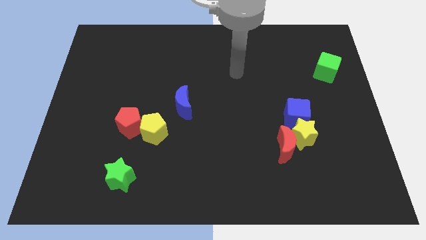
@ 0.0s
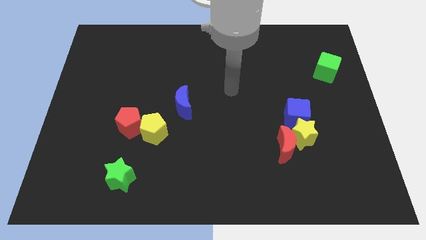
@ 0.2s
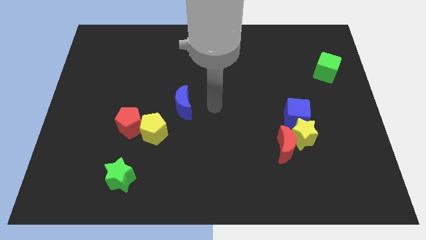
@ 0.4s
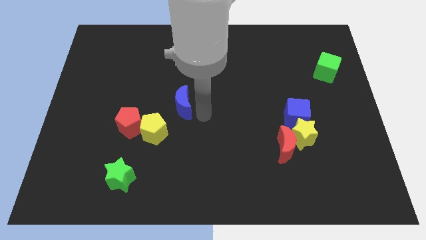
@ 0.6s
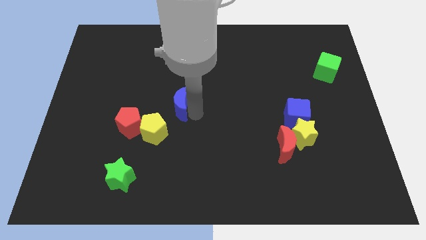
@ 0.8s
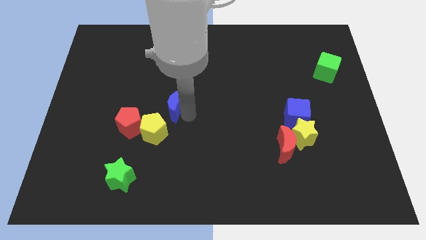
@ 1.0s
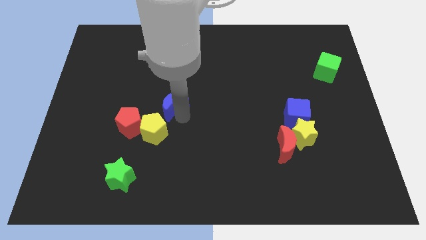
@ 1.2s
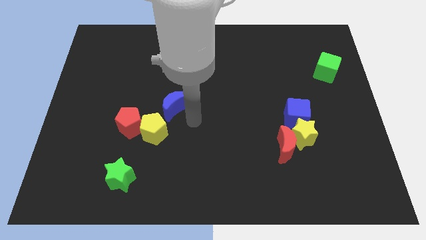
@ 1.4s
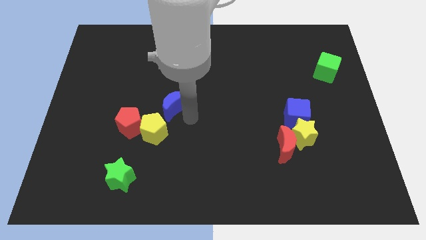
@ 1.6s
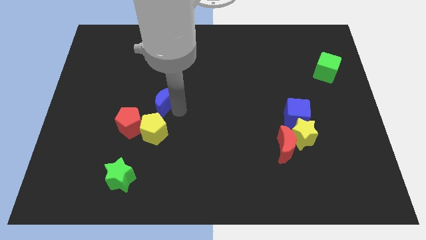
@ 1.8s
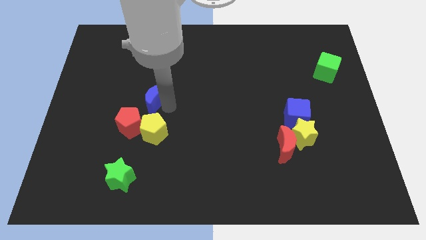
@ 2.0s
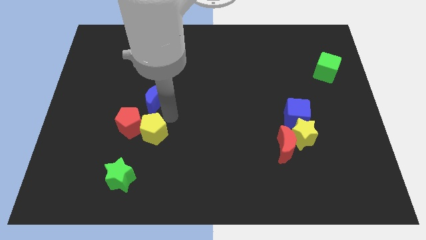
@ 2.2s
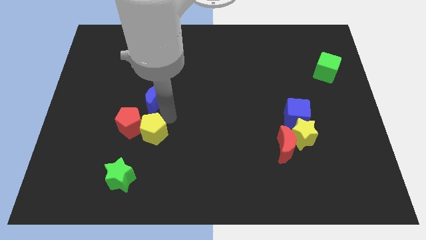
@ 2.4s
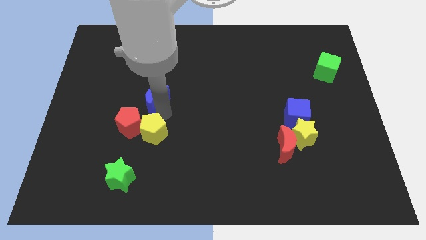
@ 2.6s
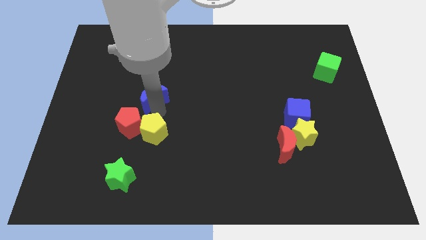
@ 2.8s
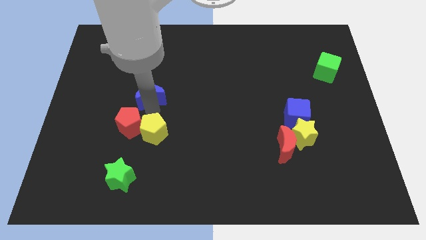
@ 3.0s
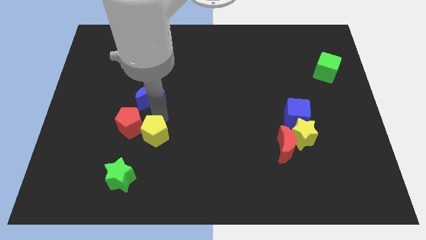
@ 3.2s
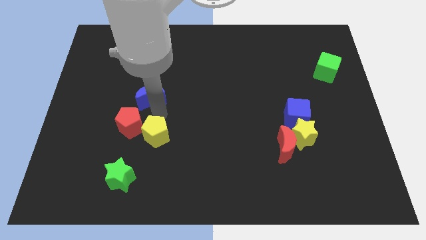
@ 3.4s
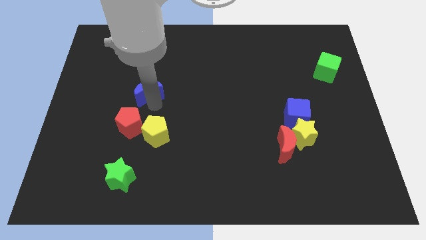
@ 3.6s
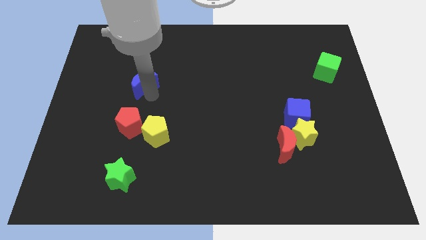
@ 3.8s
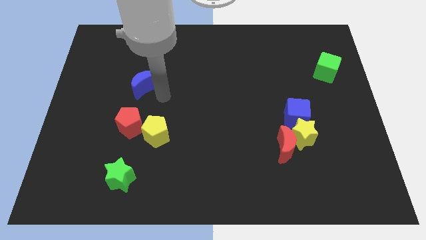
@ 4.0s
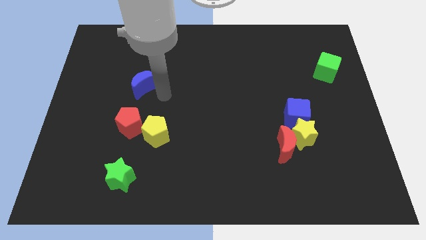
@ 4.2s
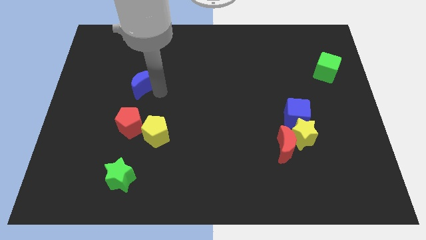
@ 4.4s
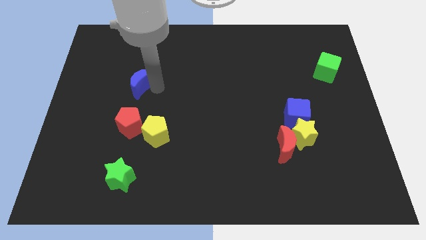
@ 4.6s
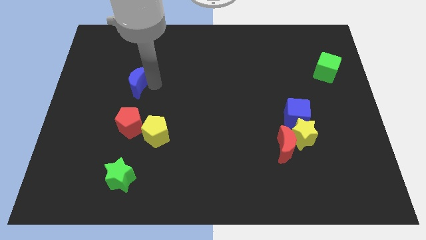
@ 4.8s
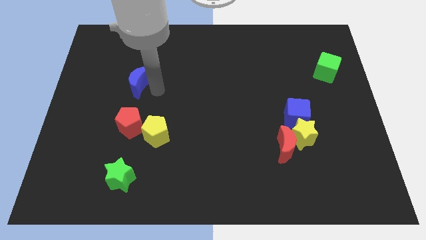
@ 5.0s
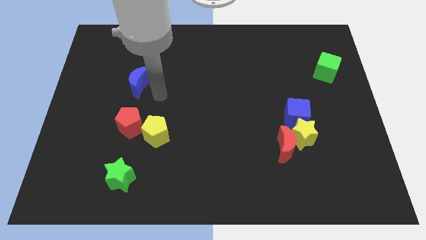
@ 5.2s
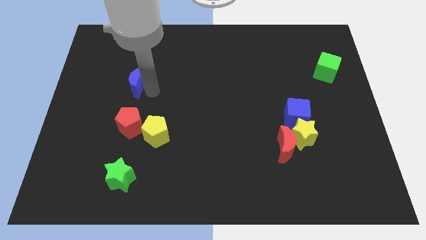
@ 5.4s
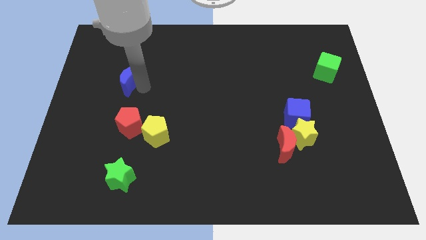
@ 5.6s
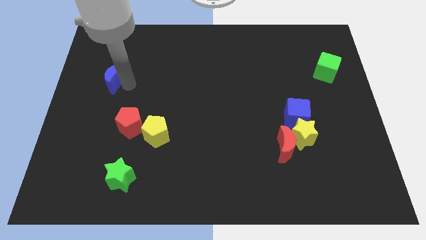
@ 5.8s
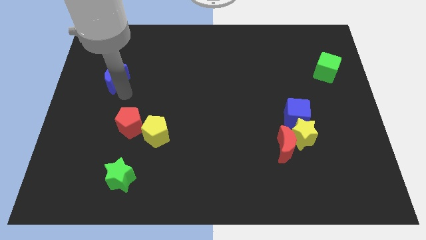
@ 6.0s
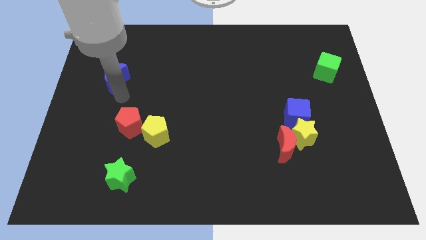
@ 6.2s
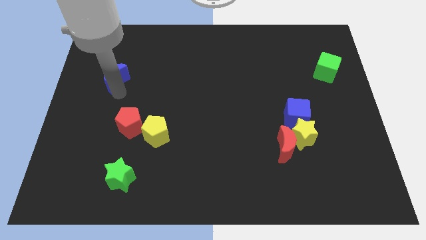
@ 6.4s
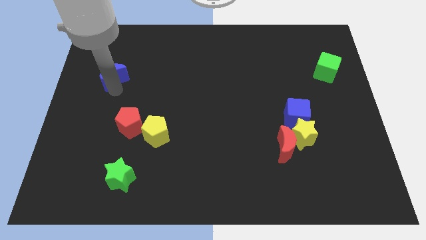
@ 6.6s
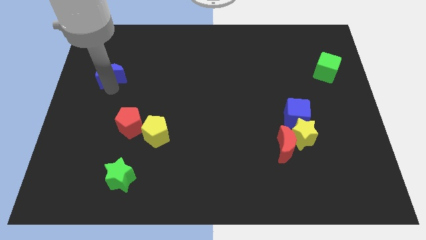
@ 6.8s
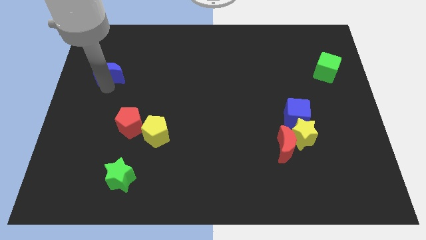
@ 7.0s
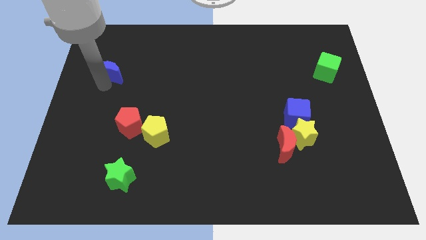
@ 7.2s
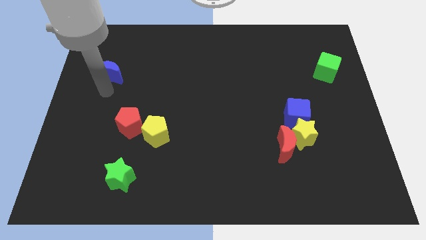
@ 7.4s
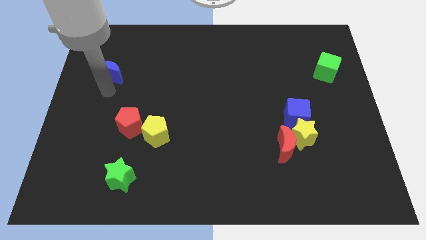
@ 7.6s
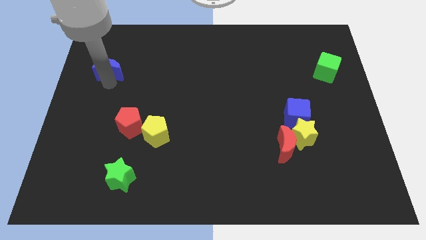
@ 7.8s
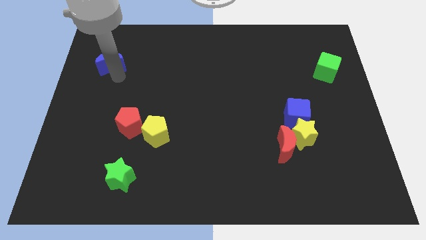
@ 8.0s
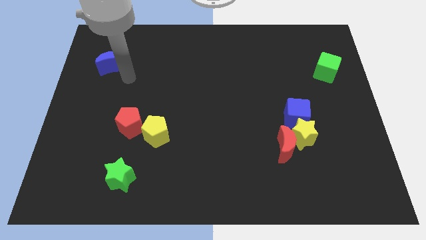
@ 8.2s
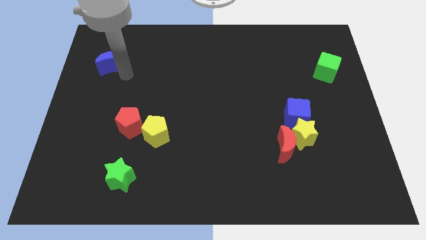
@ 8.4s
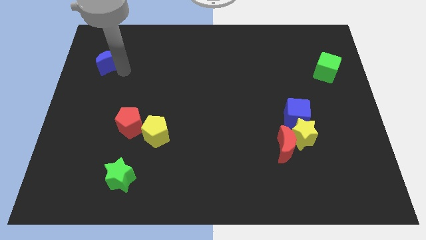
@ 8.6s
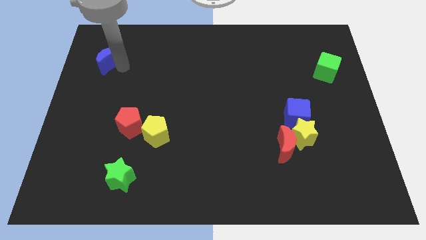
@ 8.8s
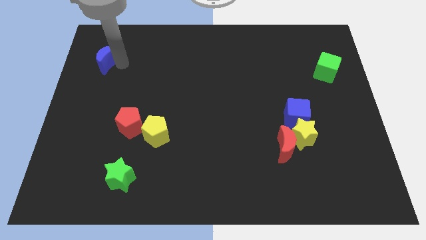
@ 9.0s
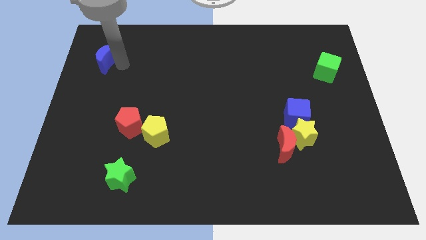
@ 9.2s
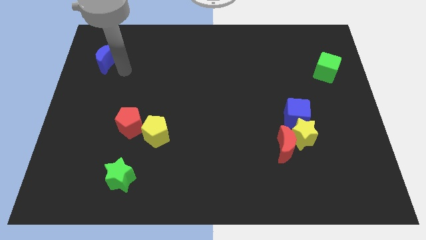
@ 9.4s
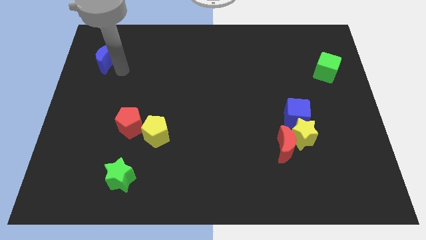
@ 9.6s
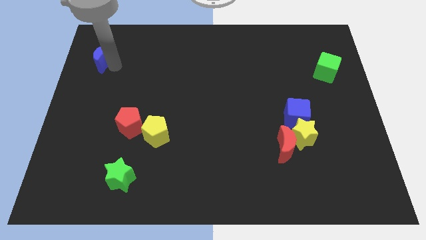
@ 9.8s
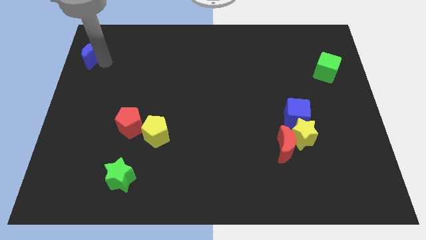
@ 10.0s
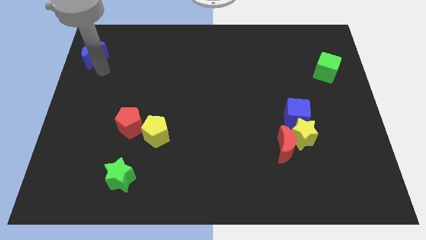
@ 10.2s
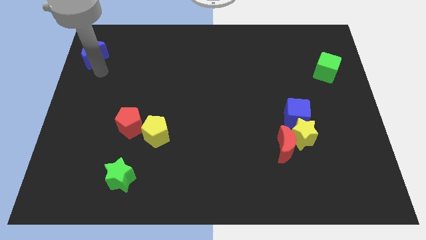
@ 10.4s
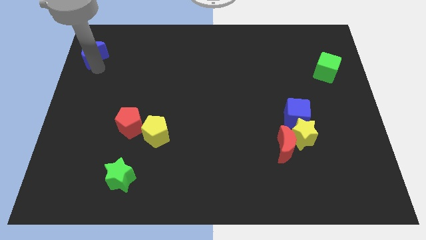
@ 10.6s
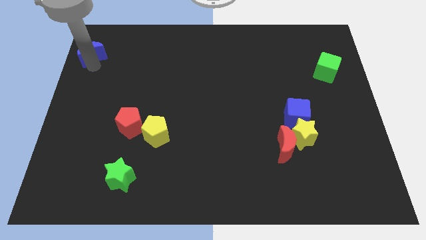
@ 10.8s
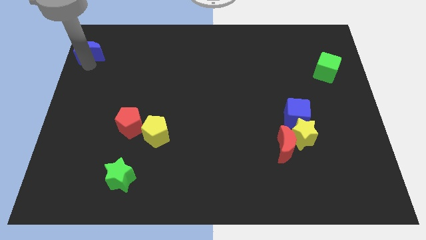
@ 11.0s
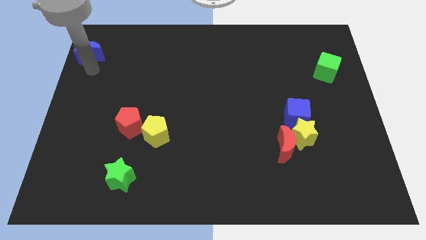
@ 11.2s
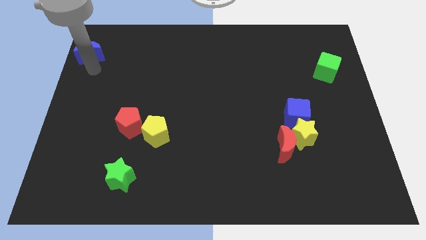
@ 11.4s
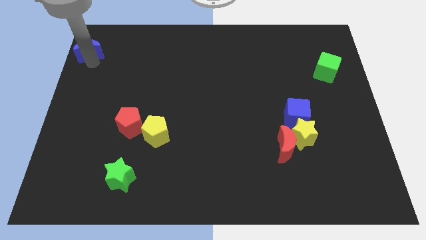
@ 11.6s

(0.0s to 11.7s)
push the blue moon to the top left

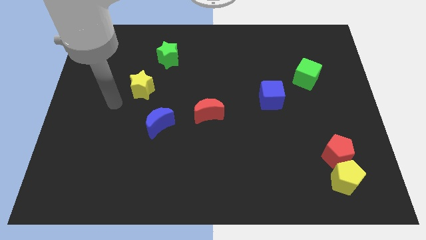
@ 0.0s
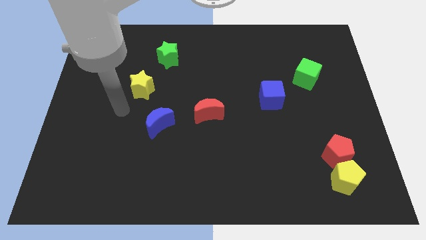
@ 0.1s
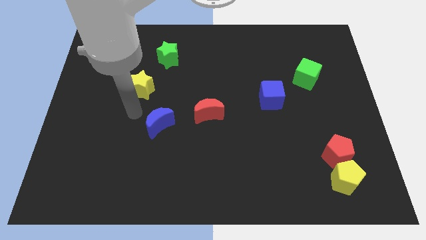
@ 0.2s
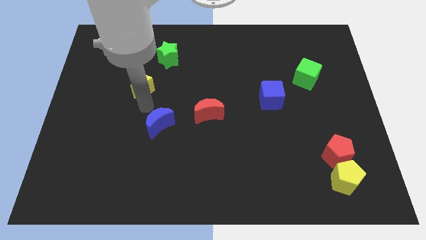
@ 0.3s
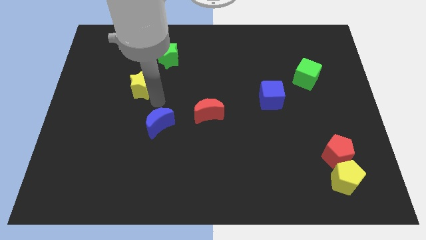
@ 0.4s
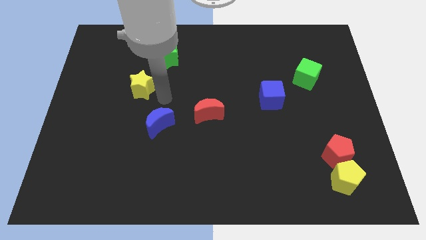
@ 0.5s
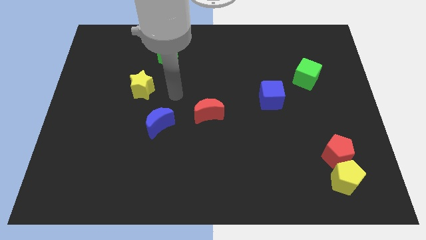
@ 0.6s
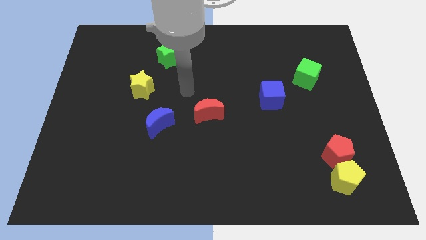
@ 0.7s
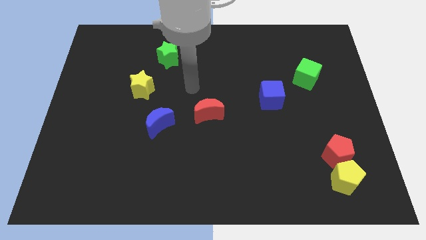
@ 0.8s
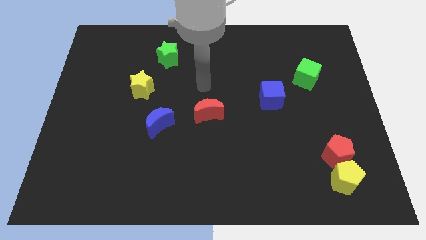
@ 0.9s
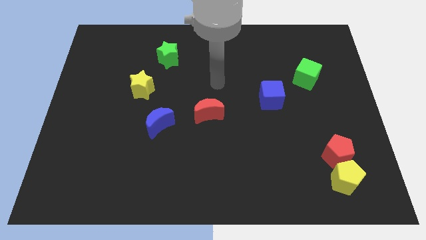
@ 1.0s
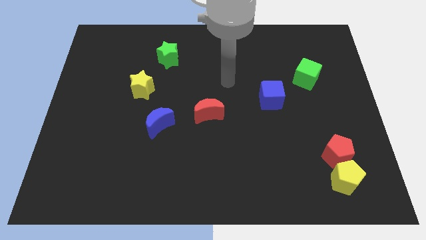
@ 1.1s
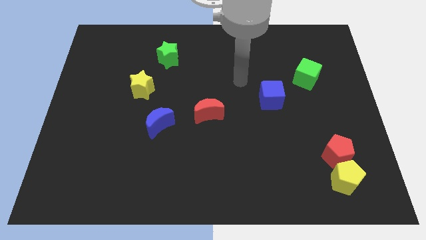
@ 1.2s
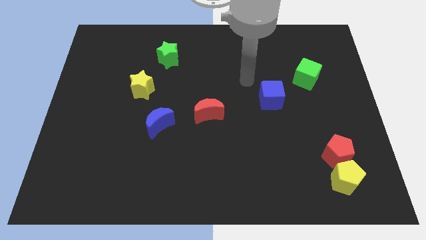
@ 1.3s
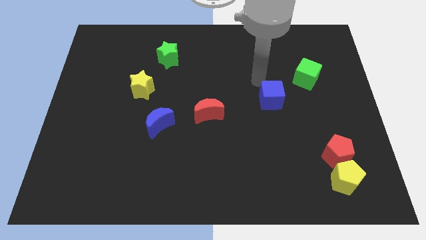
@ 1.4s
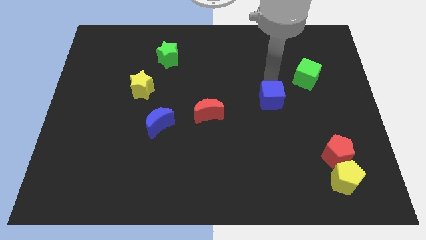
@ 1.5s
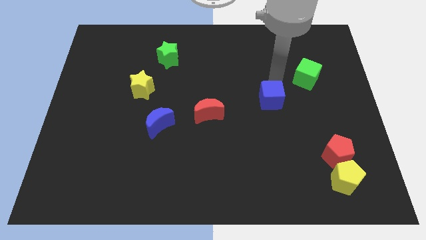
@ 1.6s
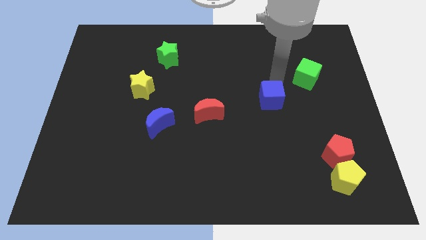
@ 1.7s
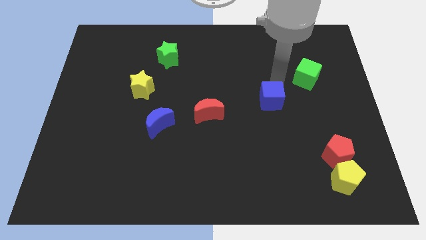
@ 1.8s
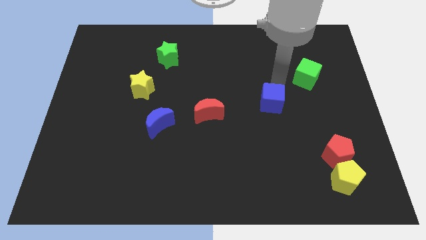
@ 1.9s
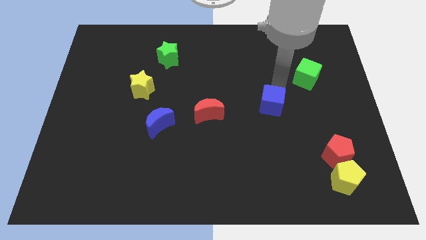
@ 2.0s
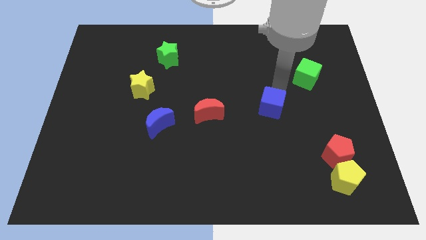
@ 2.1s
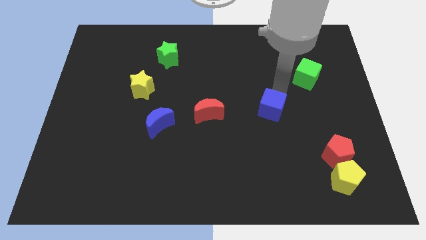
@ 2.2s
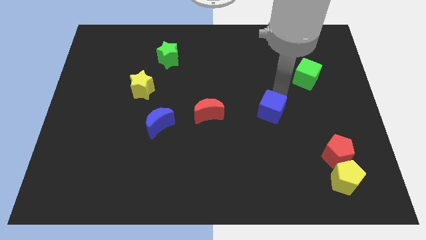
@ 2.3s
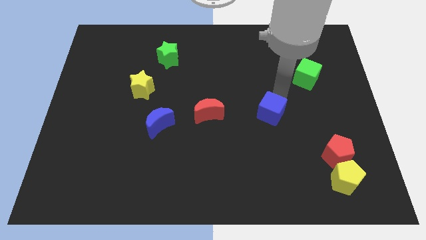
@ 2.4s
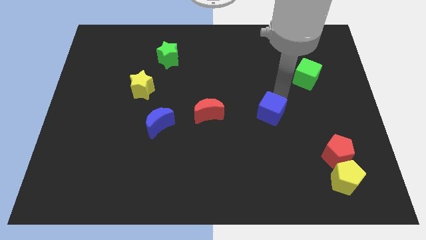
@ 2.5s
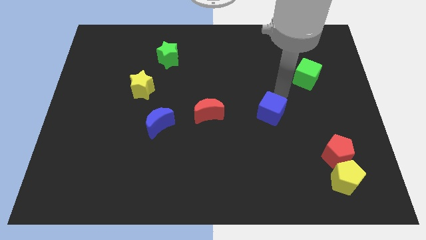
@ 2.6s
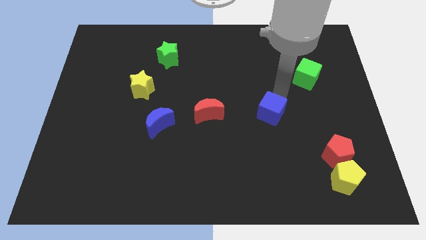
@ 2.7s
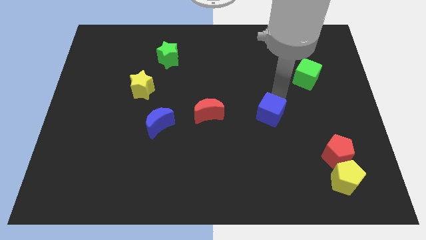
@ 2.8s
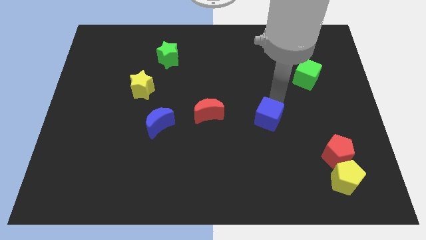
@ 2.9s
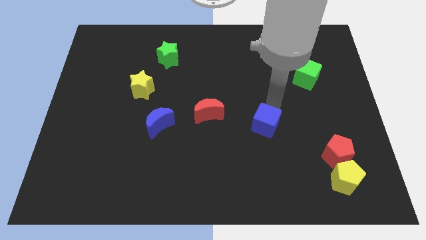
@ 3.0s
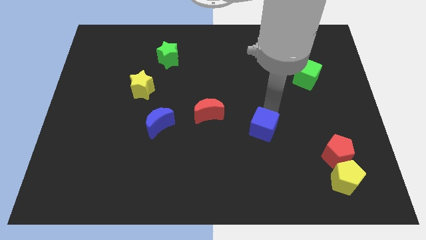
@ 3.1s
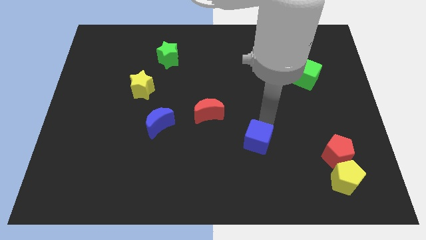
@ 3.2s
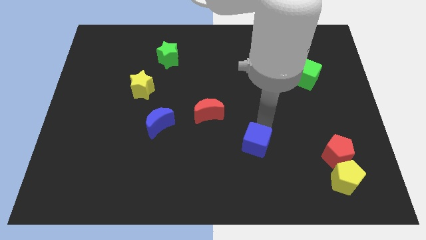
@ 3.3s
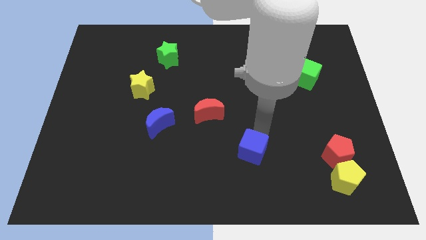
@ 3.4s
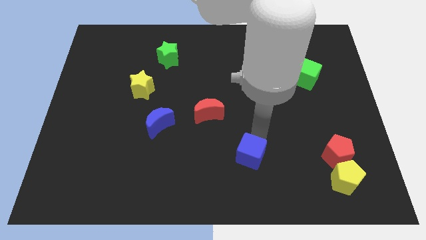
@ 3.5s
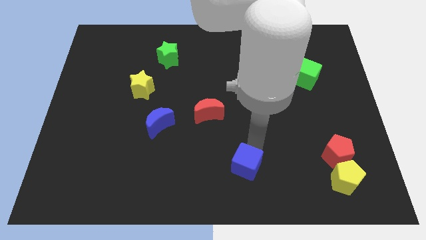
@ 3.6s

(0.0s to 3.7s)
push the blue cube to the bottom side
